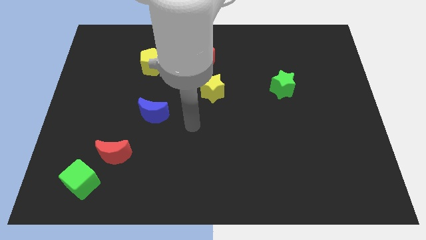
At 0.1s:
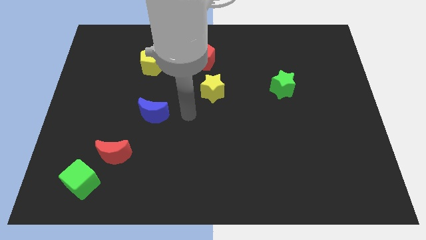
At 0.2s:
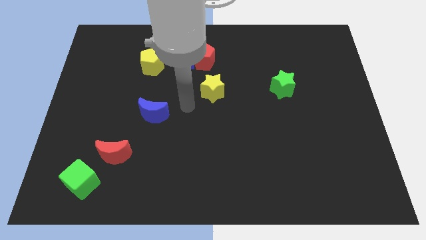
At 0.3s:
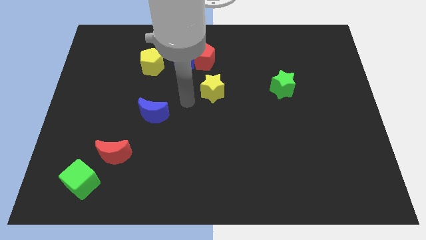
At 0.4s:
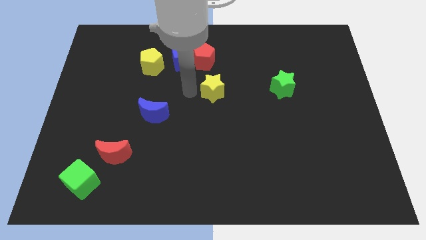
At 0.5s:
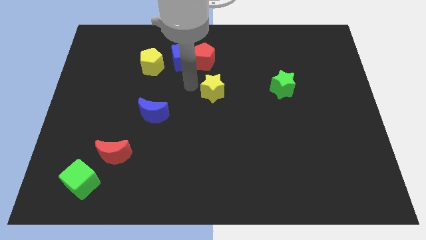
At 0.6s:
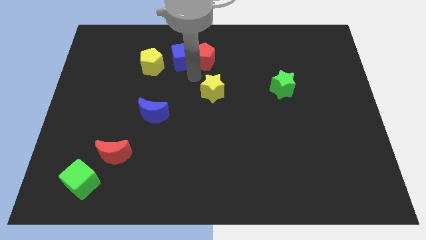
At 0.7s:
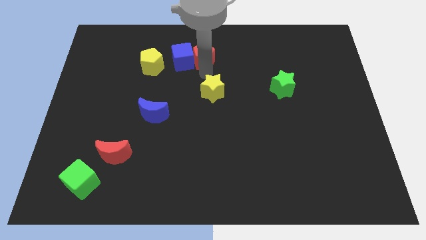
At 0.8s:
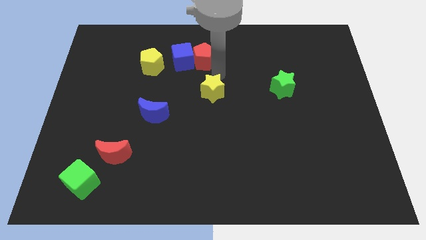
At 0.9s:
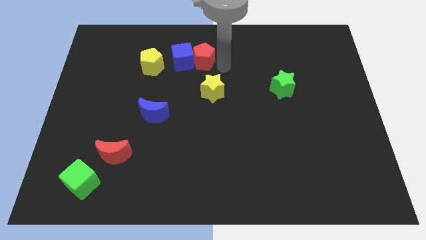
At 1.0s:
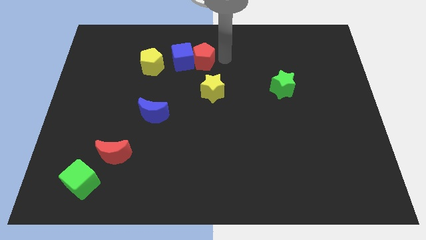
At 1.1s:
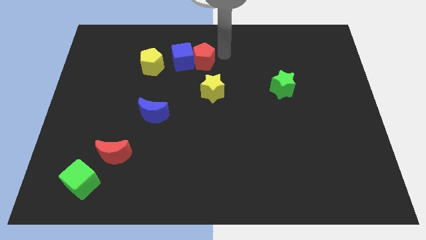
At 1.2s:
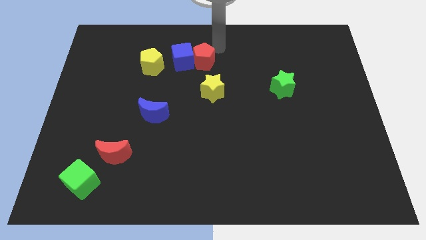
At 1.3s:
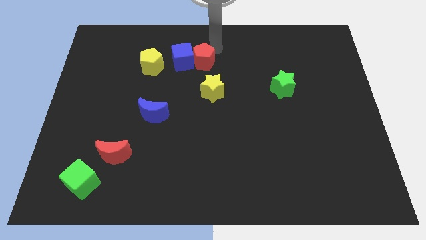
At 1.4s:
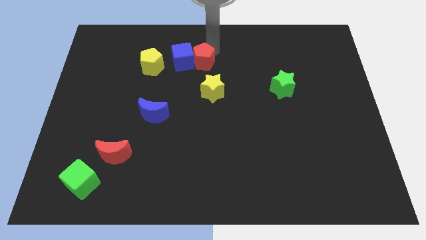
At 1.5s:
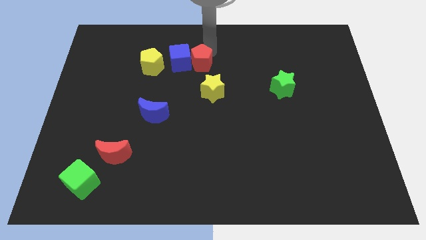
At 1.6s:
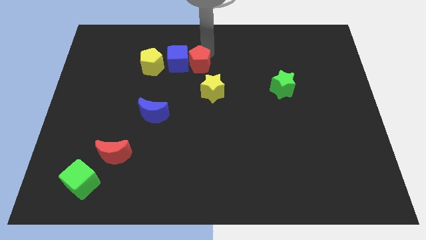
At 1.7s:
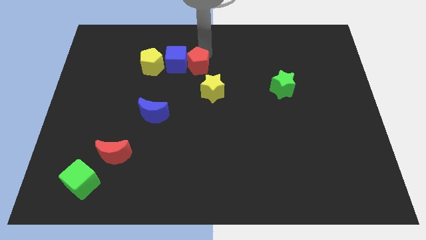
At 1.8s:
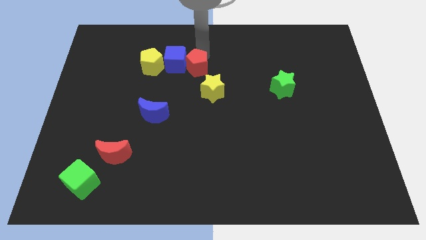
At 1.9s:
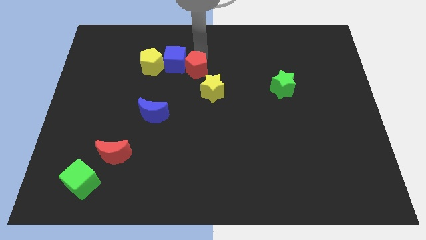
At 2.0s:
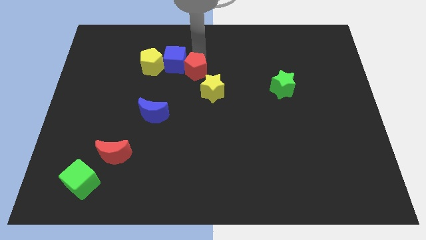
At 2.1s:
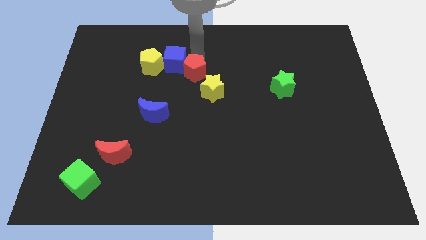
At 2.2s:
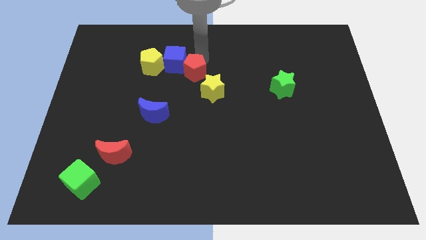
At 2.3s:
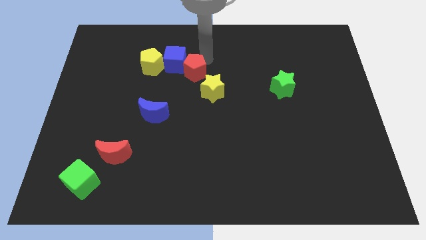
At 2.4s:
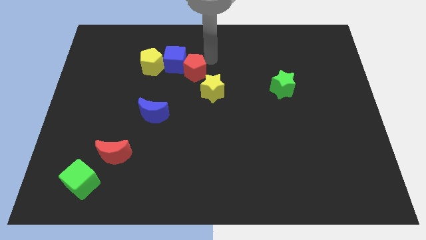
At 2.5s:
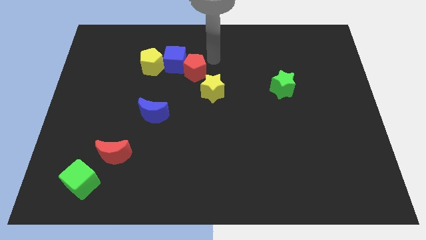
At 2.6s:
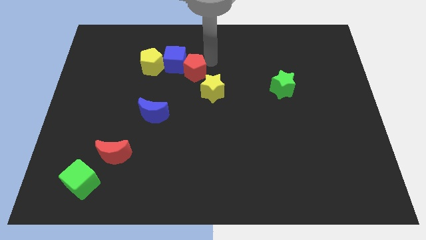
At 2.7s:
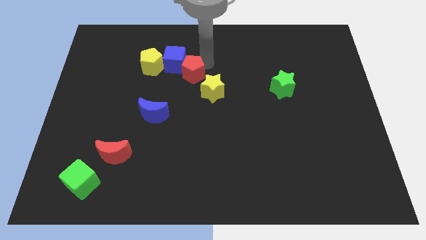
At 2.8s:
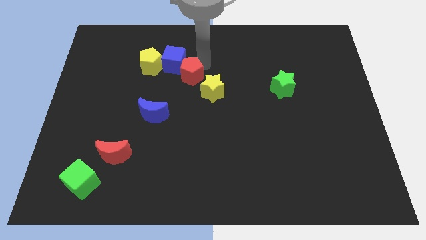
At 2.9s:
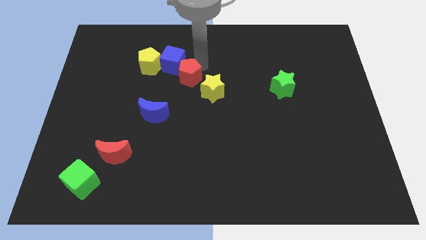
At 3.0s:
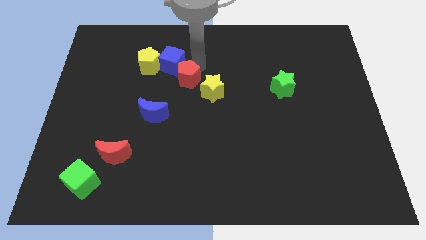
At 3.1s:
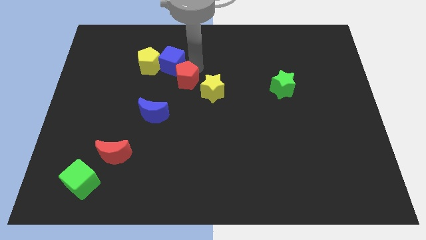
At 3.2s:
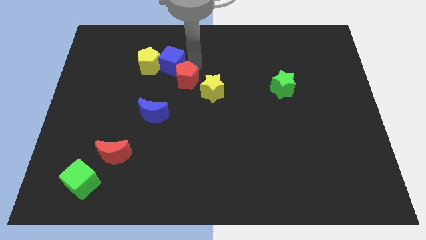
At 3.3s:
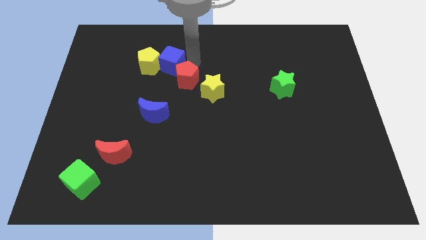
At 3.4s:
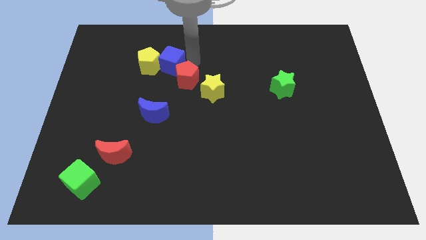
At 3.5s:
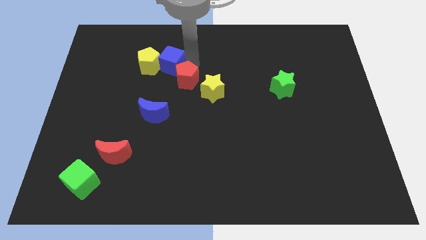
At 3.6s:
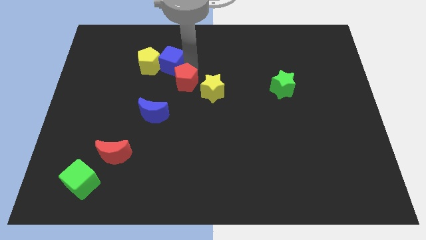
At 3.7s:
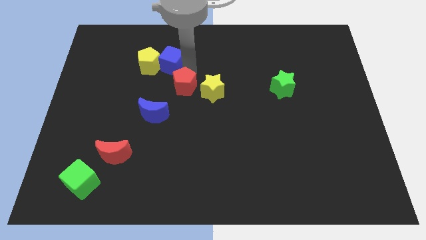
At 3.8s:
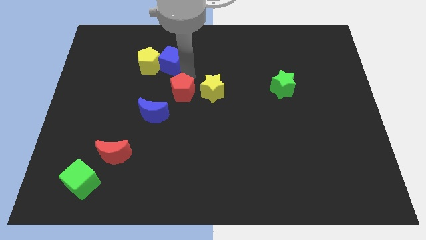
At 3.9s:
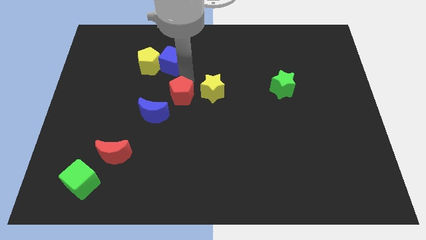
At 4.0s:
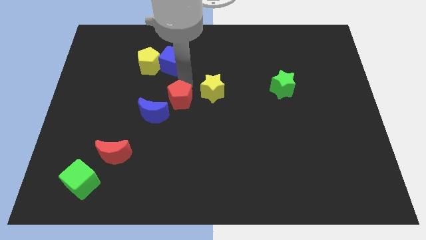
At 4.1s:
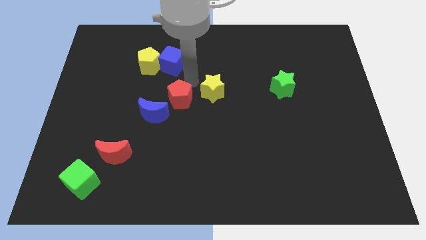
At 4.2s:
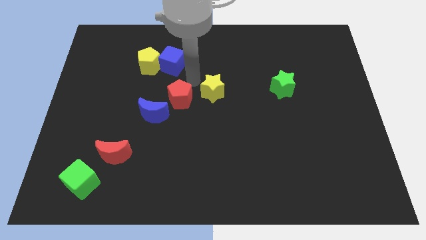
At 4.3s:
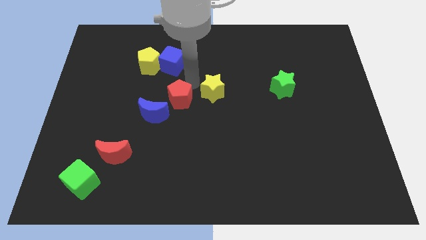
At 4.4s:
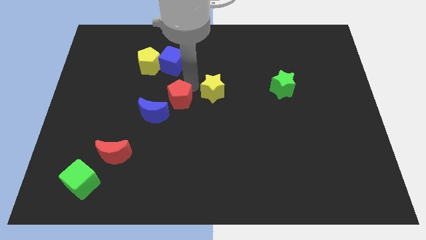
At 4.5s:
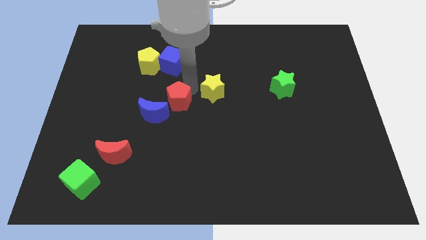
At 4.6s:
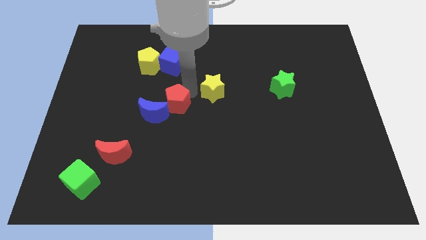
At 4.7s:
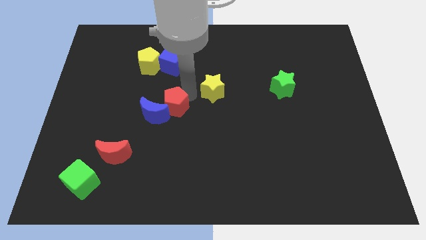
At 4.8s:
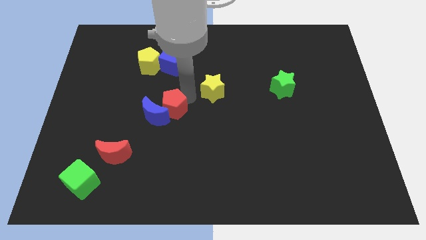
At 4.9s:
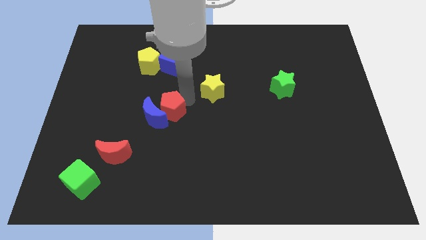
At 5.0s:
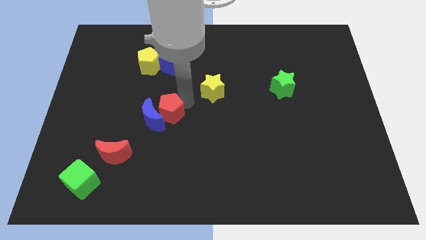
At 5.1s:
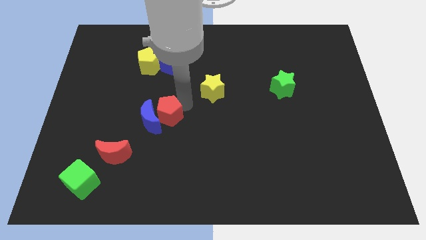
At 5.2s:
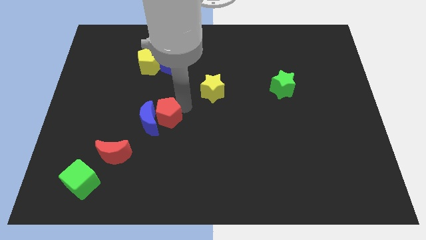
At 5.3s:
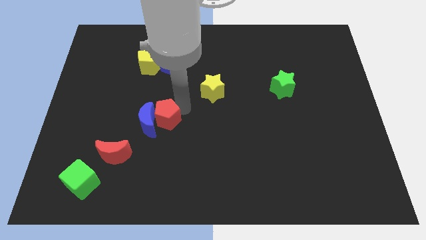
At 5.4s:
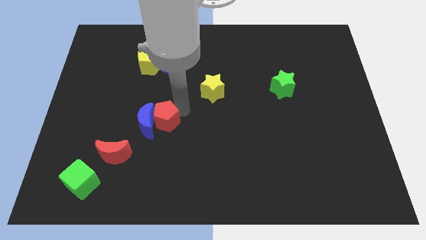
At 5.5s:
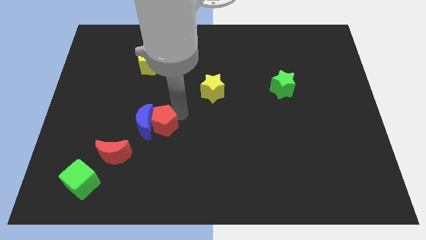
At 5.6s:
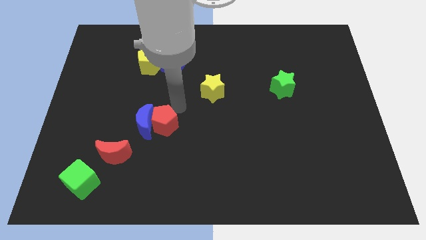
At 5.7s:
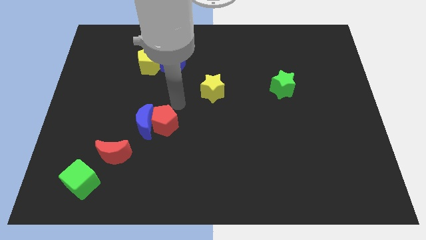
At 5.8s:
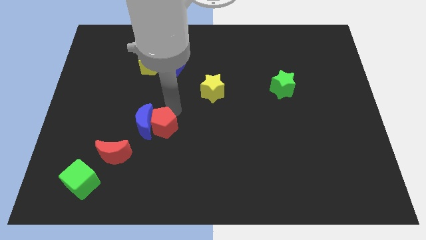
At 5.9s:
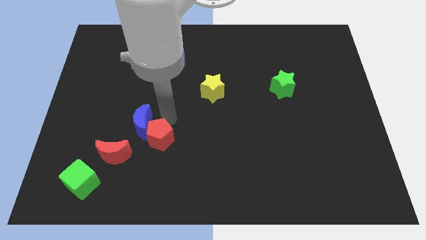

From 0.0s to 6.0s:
push the red pentagon to the bottom side of the blue moon

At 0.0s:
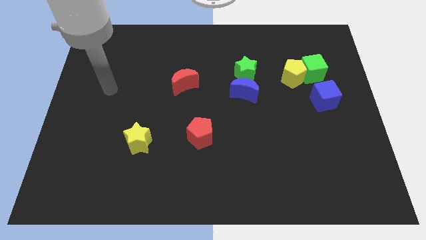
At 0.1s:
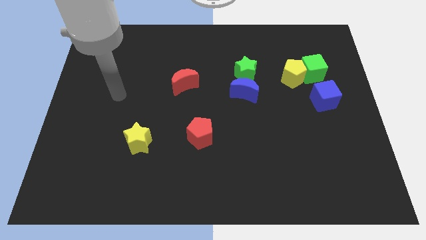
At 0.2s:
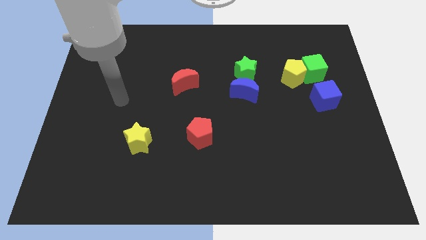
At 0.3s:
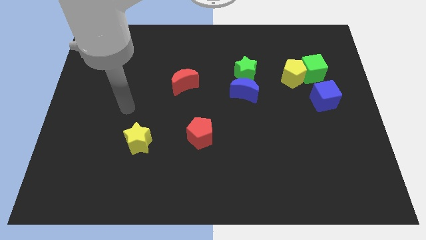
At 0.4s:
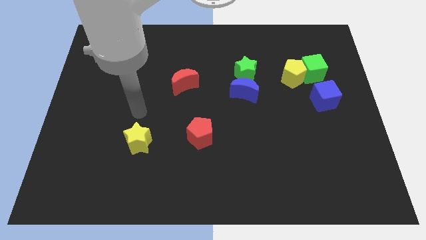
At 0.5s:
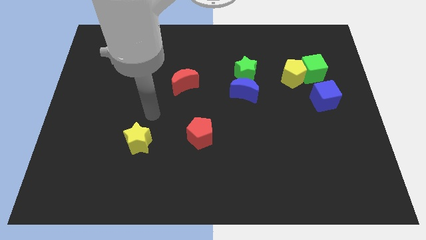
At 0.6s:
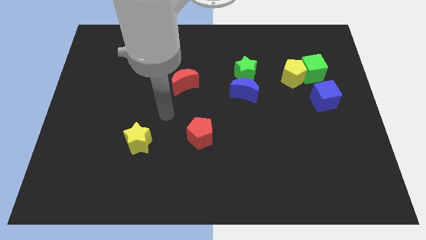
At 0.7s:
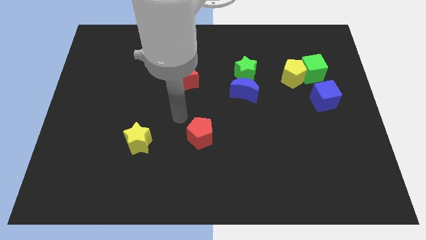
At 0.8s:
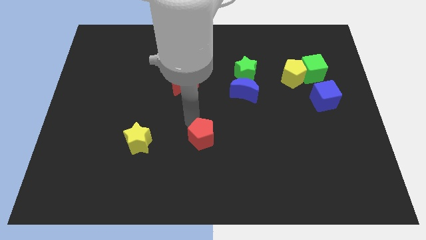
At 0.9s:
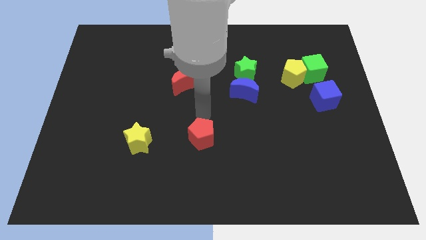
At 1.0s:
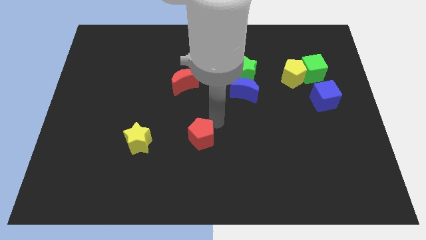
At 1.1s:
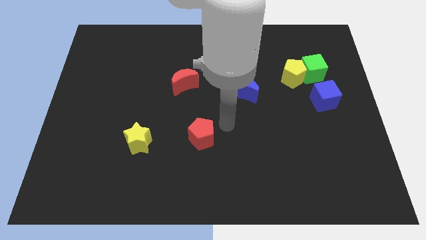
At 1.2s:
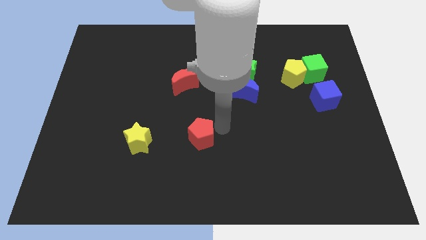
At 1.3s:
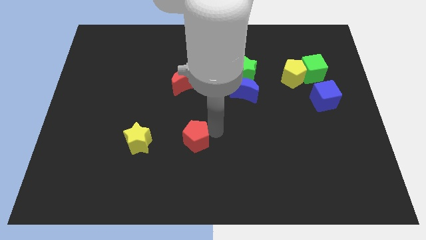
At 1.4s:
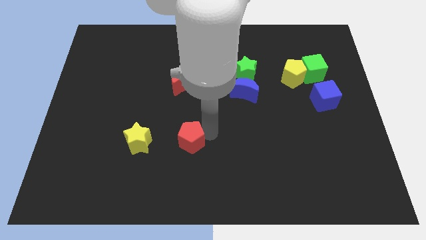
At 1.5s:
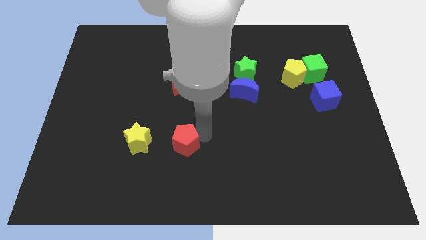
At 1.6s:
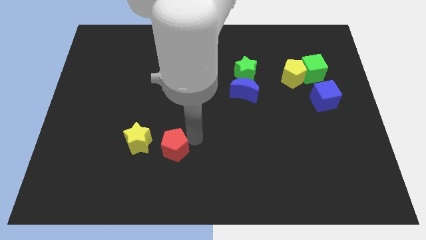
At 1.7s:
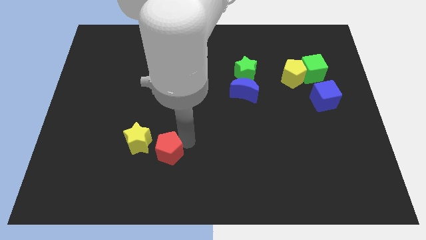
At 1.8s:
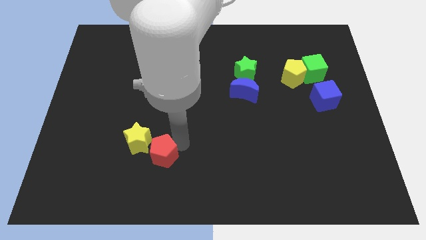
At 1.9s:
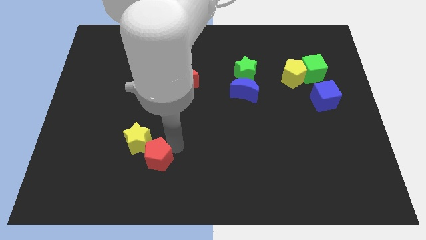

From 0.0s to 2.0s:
push the red pentagon to the bottom of the yellow star

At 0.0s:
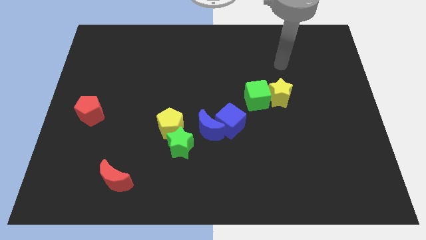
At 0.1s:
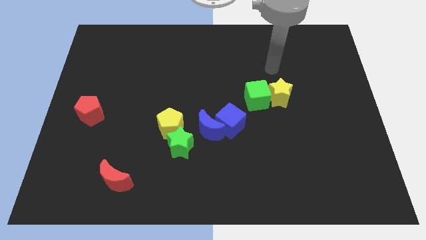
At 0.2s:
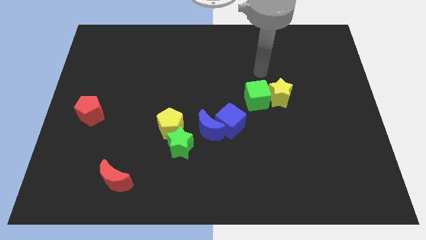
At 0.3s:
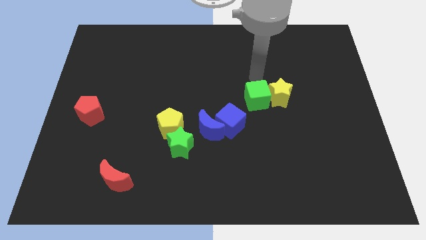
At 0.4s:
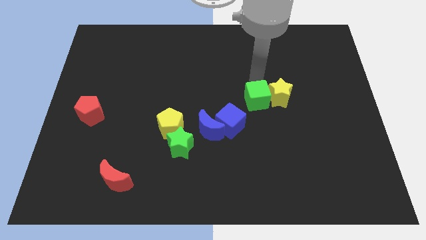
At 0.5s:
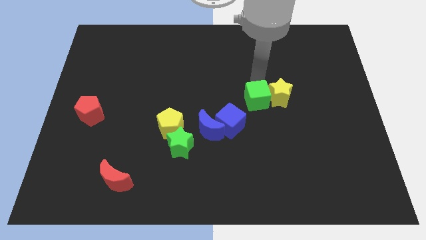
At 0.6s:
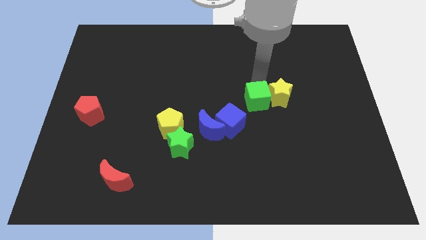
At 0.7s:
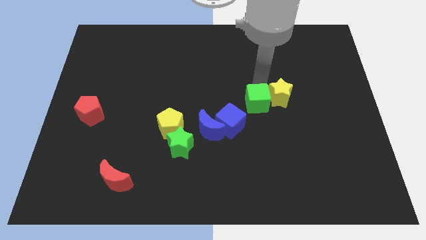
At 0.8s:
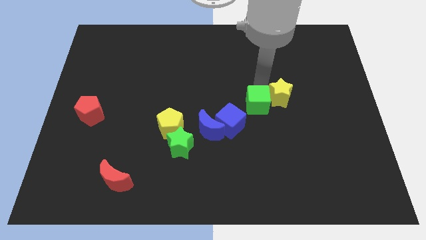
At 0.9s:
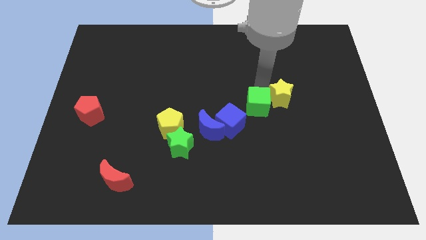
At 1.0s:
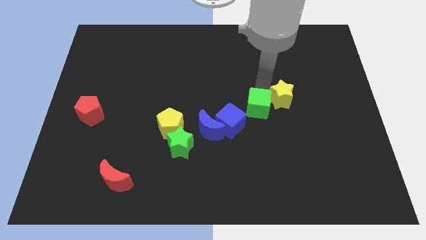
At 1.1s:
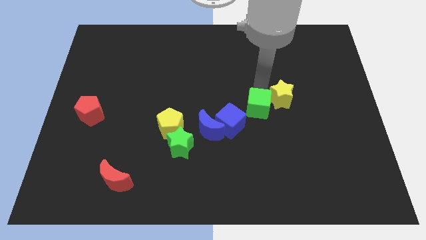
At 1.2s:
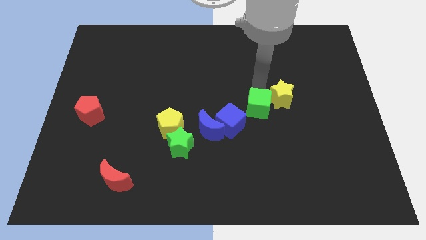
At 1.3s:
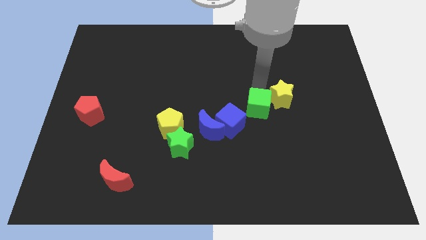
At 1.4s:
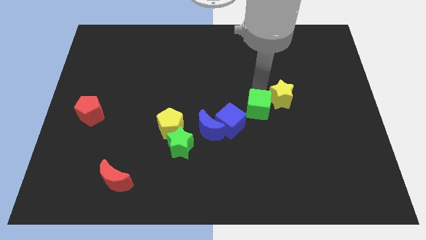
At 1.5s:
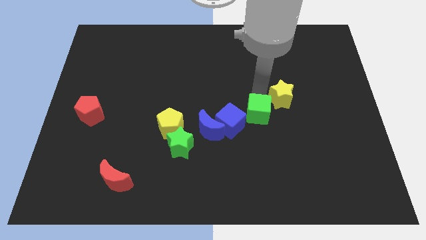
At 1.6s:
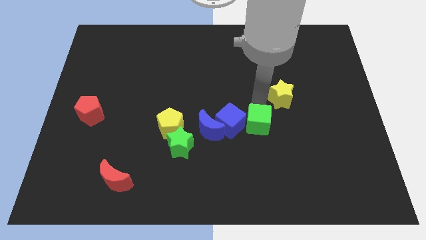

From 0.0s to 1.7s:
put the green cube to the bottom right side of the blue cube
